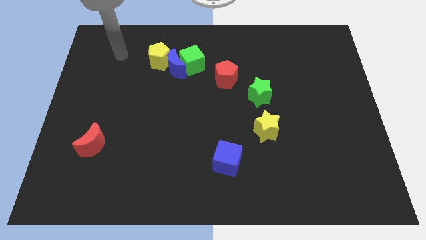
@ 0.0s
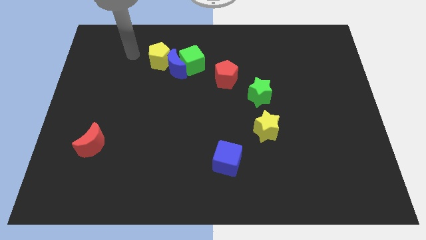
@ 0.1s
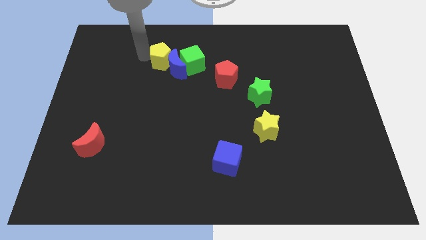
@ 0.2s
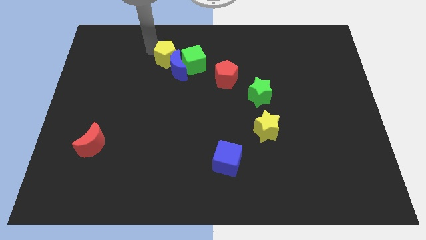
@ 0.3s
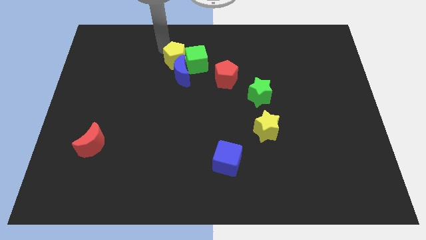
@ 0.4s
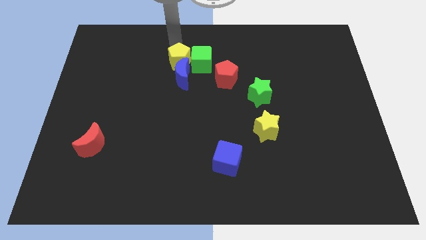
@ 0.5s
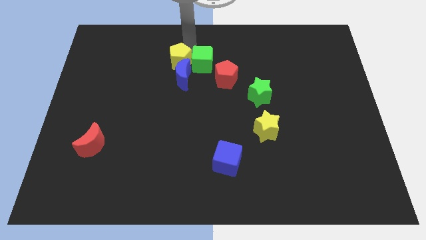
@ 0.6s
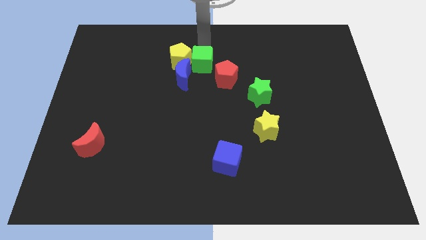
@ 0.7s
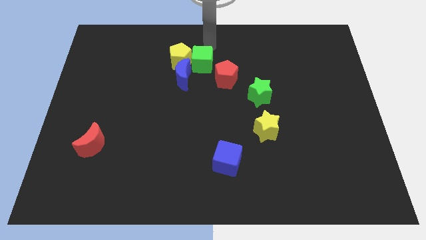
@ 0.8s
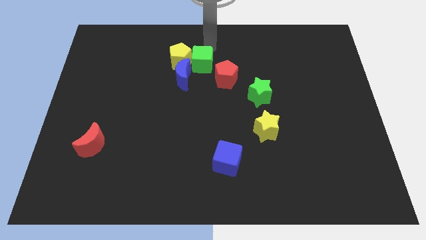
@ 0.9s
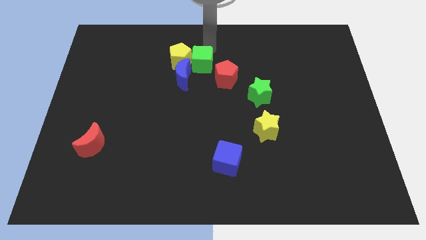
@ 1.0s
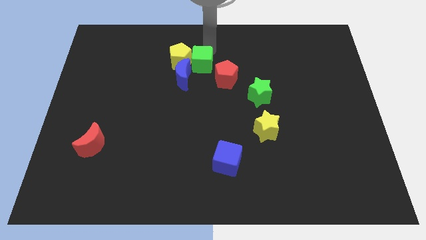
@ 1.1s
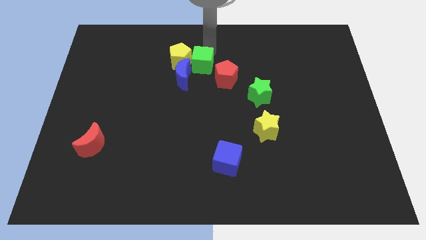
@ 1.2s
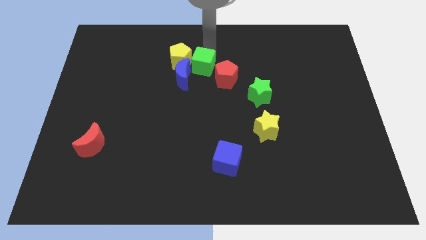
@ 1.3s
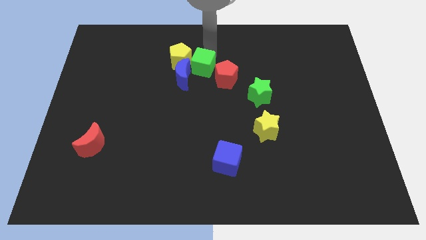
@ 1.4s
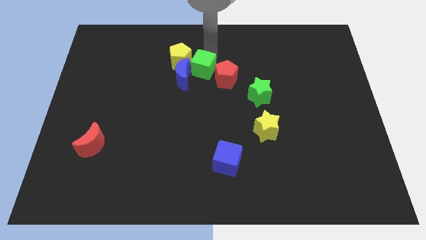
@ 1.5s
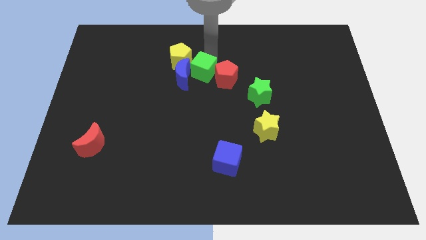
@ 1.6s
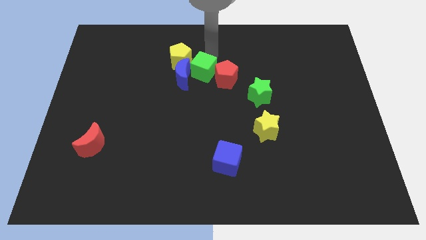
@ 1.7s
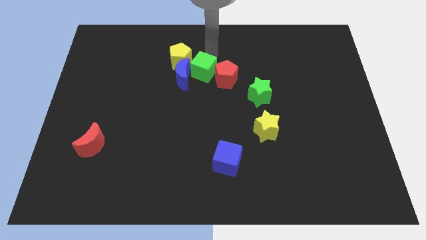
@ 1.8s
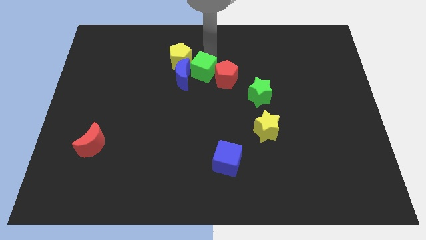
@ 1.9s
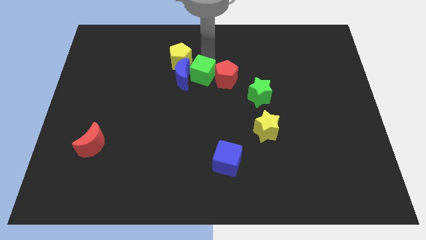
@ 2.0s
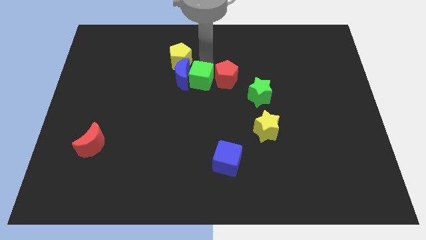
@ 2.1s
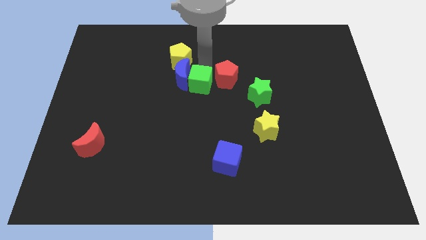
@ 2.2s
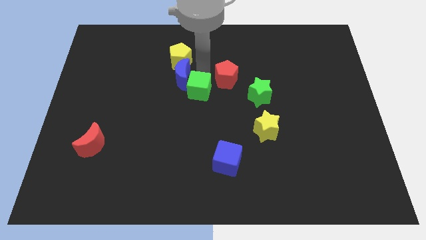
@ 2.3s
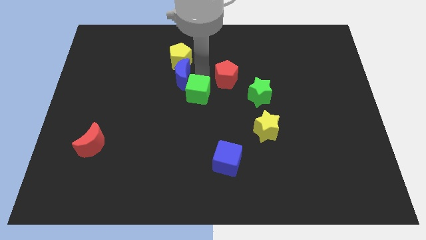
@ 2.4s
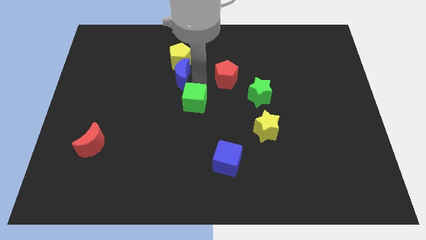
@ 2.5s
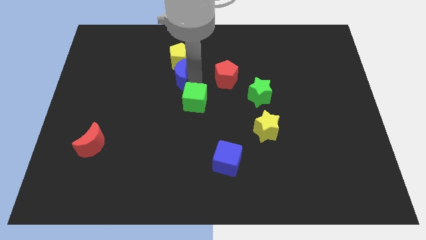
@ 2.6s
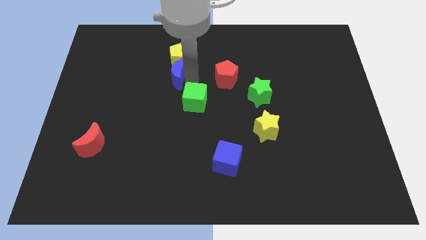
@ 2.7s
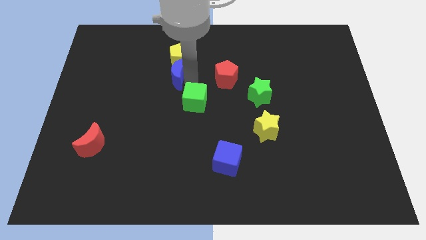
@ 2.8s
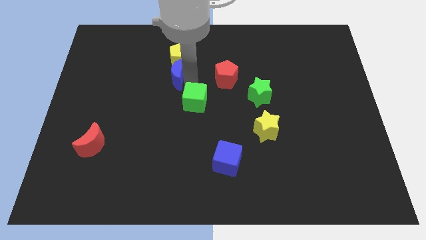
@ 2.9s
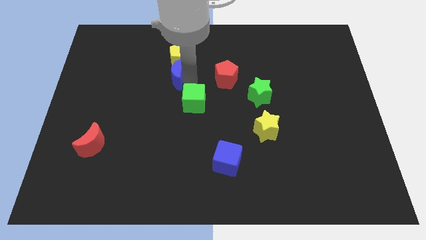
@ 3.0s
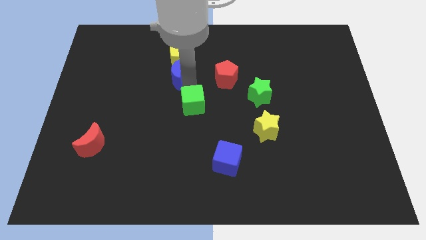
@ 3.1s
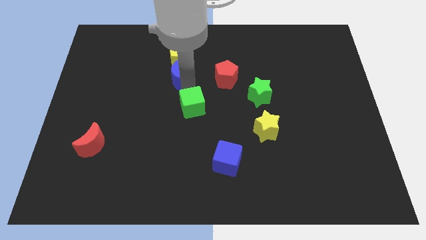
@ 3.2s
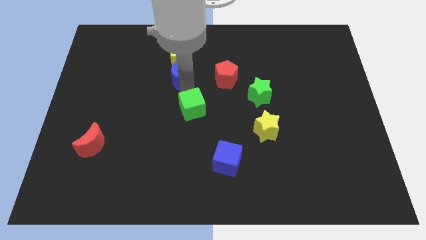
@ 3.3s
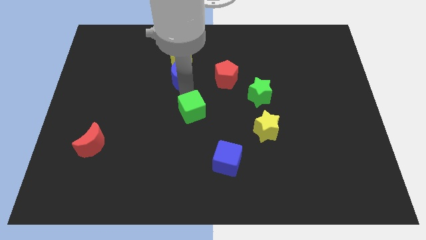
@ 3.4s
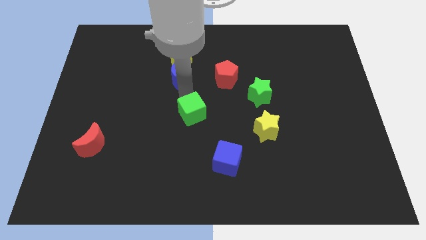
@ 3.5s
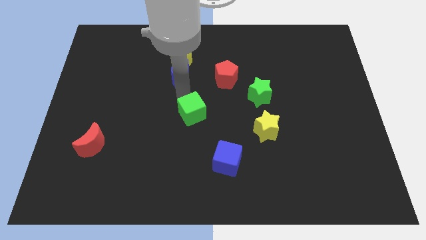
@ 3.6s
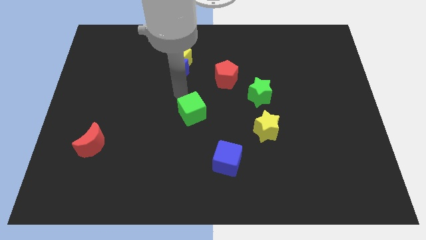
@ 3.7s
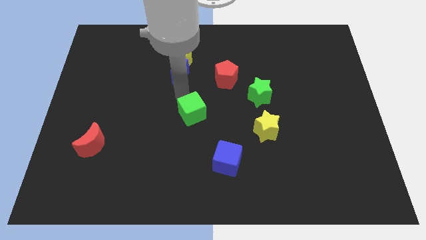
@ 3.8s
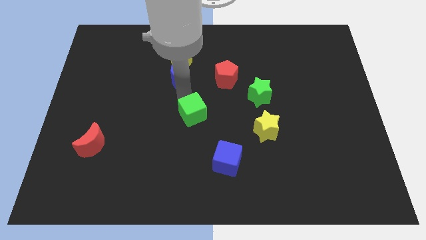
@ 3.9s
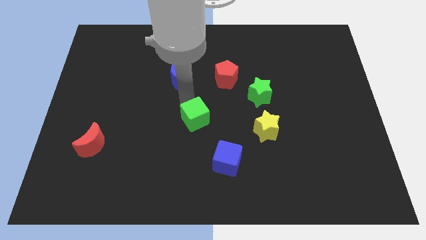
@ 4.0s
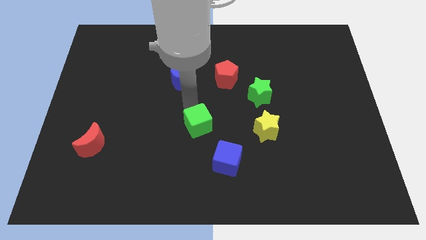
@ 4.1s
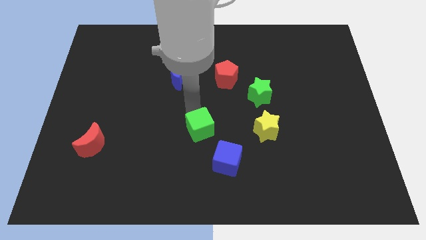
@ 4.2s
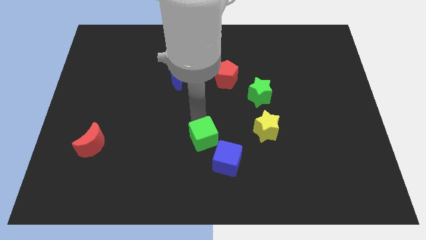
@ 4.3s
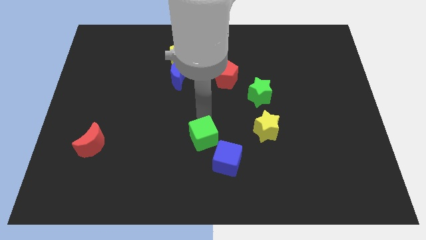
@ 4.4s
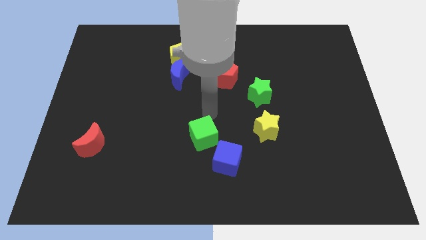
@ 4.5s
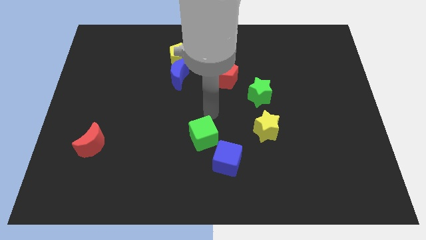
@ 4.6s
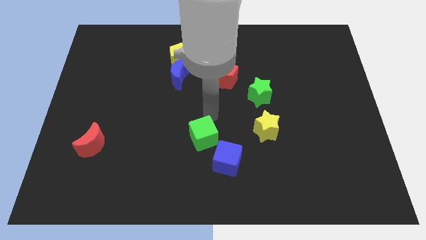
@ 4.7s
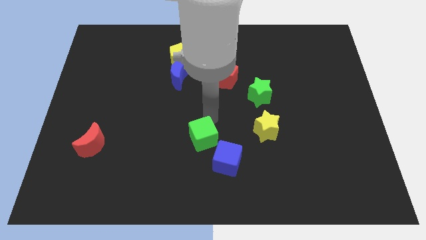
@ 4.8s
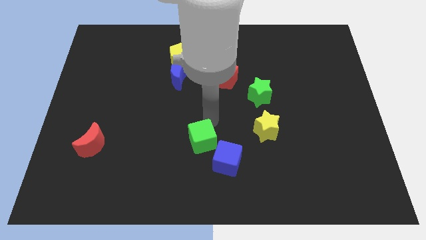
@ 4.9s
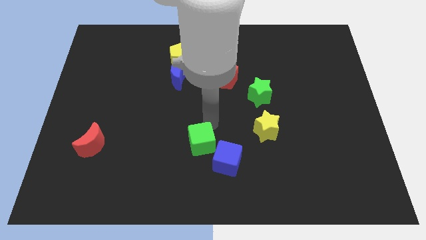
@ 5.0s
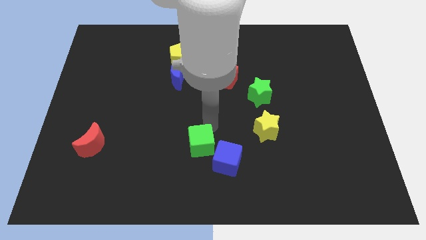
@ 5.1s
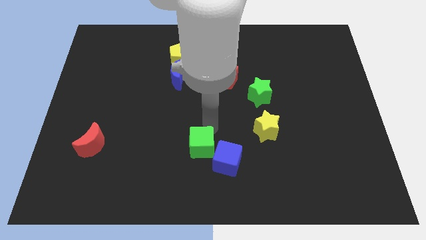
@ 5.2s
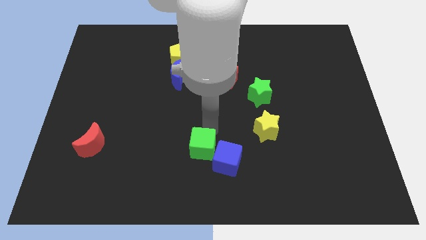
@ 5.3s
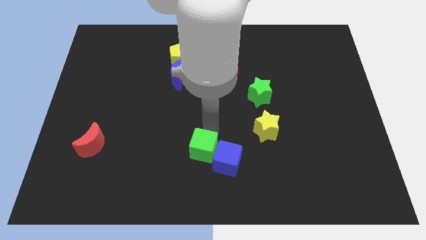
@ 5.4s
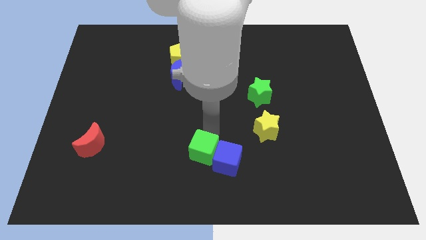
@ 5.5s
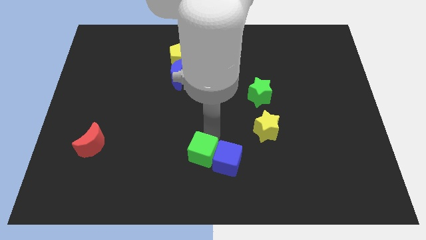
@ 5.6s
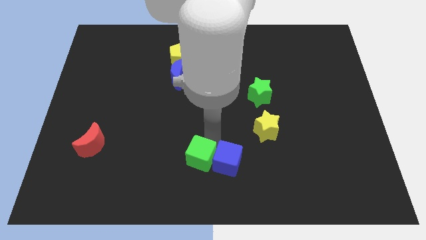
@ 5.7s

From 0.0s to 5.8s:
push the green cube to the bottom
